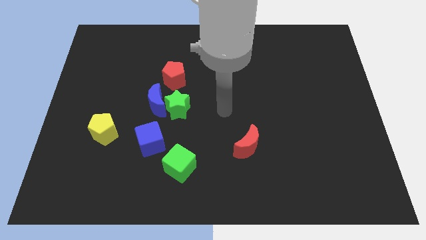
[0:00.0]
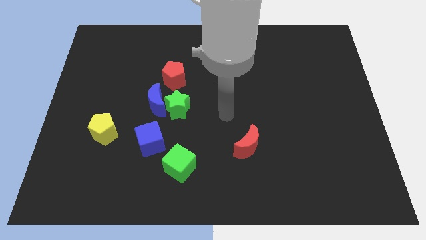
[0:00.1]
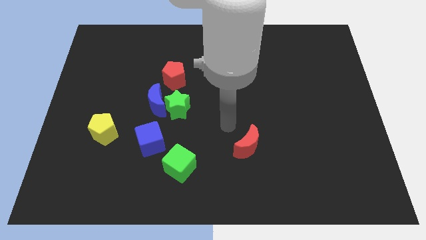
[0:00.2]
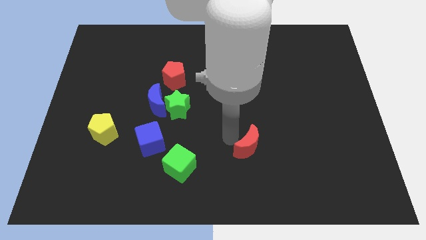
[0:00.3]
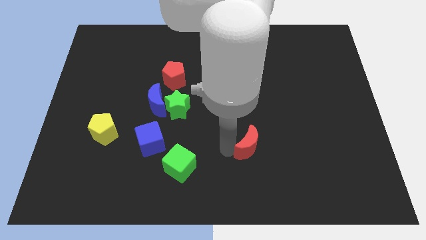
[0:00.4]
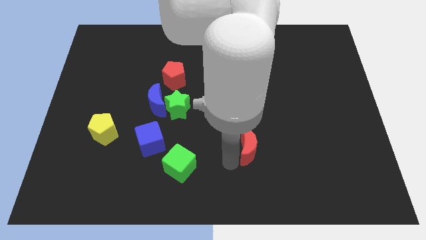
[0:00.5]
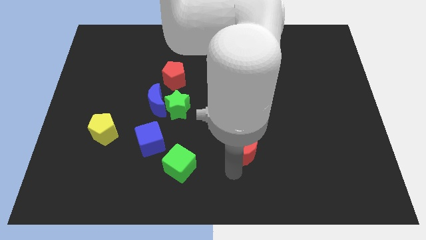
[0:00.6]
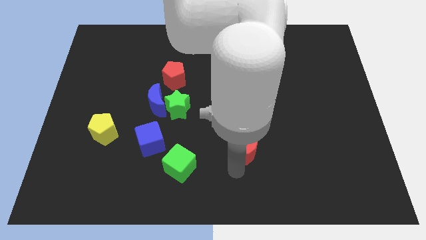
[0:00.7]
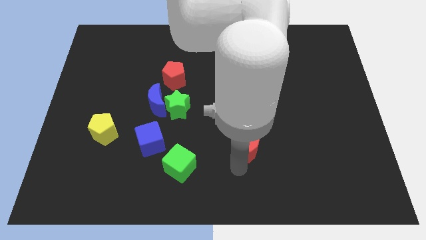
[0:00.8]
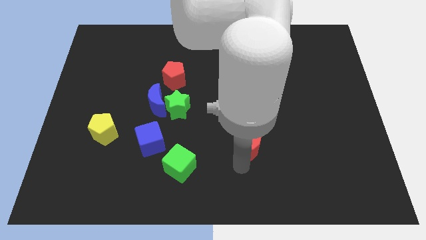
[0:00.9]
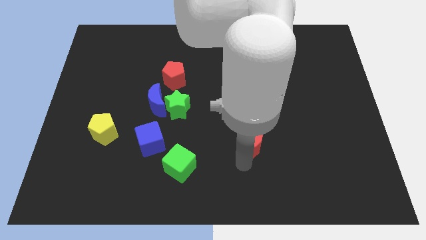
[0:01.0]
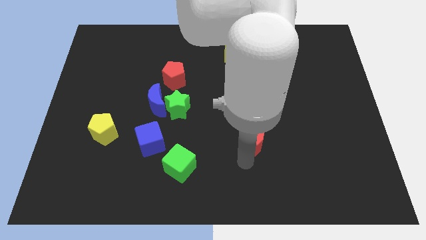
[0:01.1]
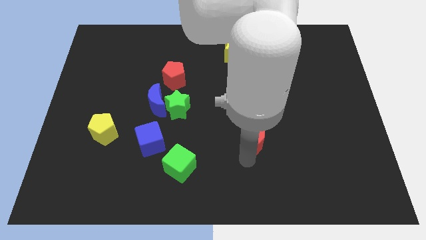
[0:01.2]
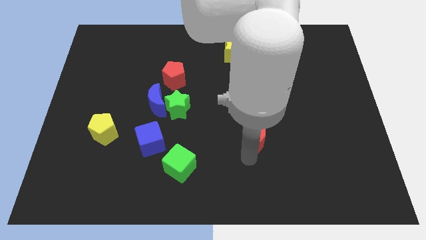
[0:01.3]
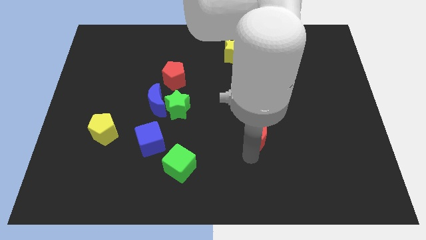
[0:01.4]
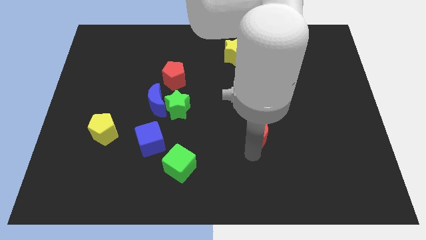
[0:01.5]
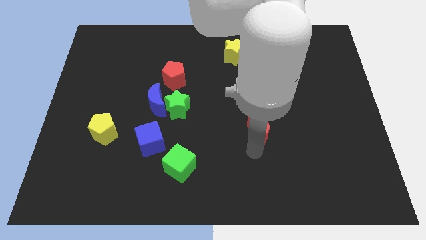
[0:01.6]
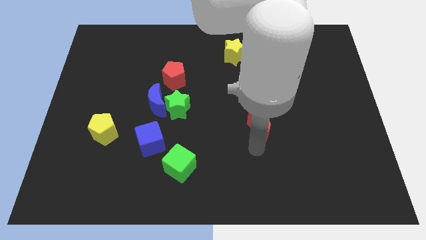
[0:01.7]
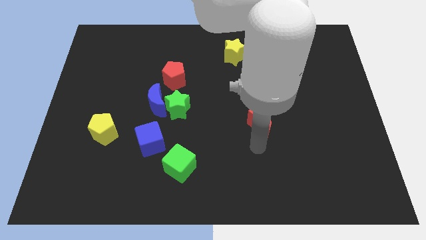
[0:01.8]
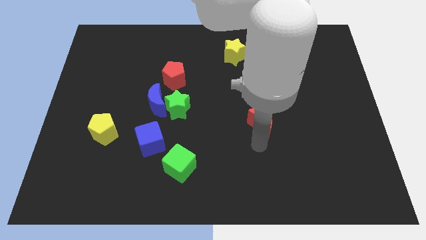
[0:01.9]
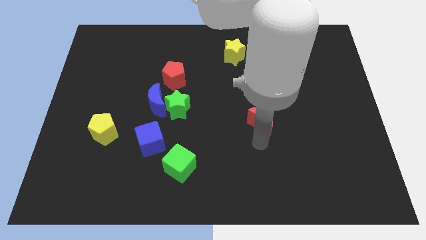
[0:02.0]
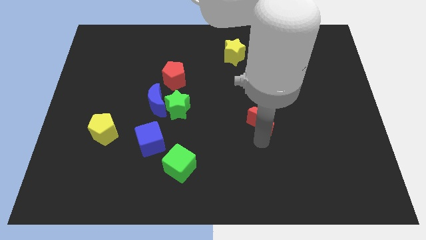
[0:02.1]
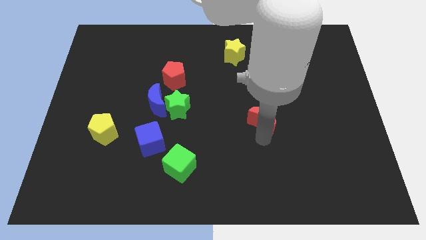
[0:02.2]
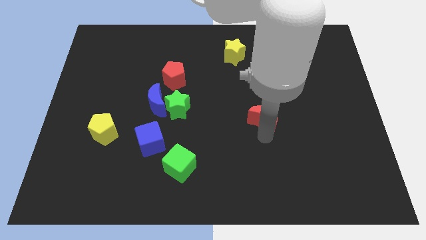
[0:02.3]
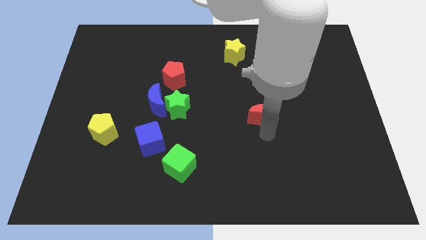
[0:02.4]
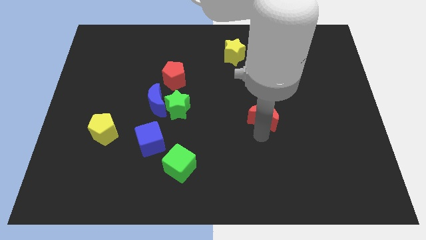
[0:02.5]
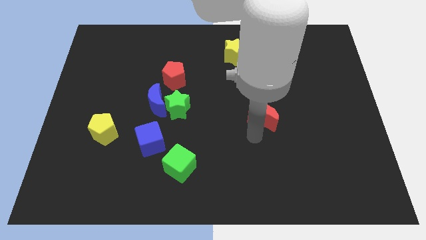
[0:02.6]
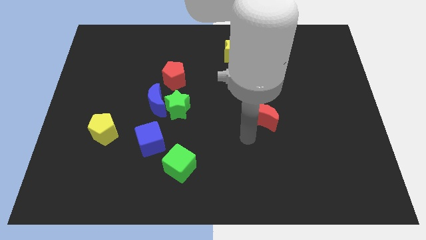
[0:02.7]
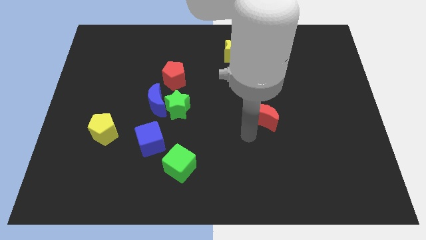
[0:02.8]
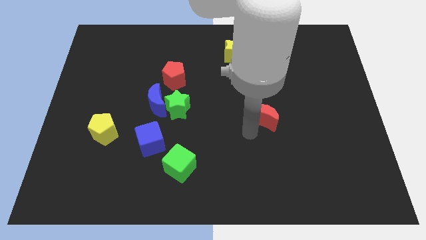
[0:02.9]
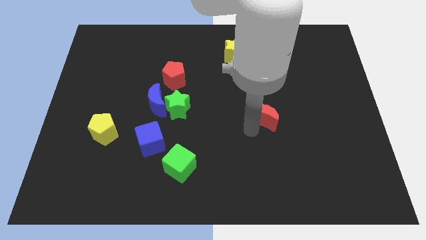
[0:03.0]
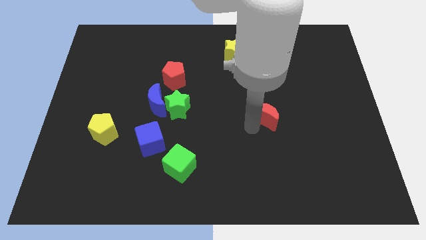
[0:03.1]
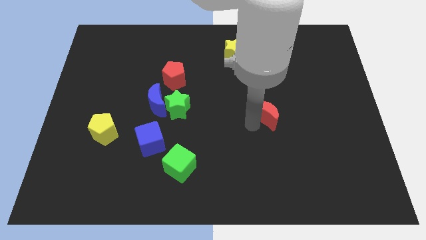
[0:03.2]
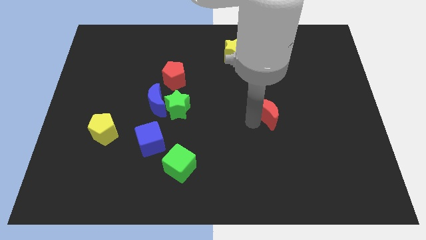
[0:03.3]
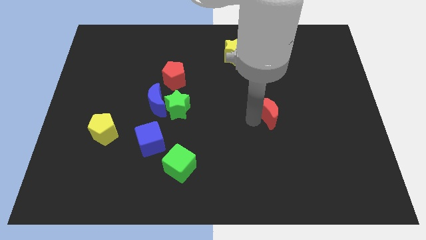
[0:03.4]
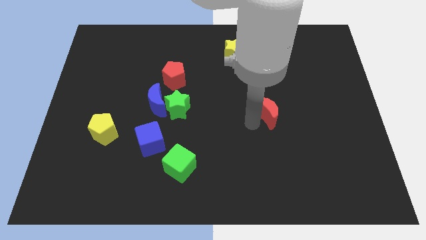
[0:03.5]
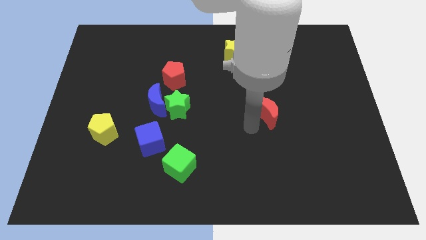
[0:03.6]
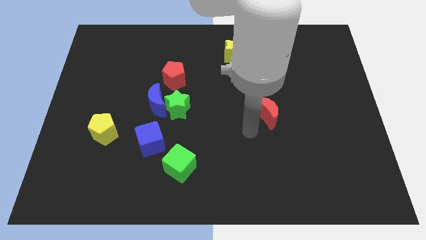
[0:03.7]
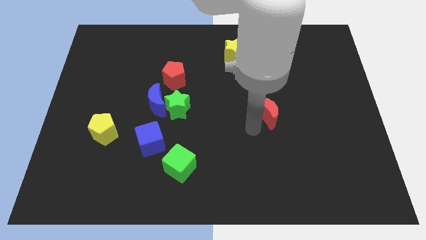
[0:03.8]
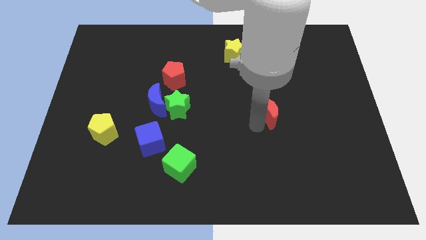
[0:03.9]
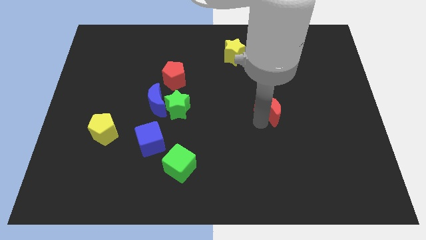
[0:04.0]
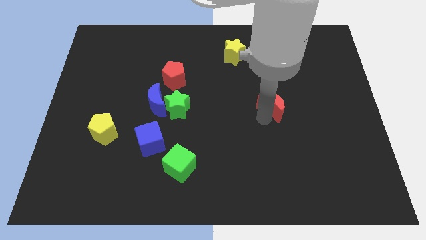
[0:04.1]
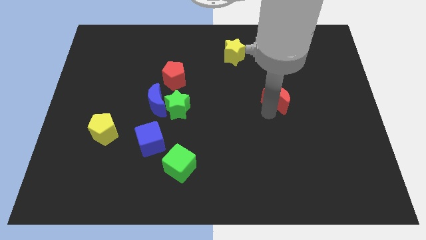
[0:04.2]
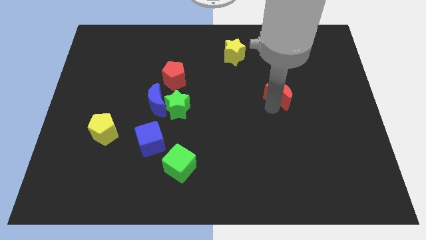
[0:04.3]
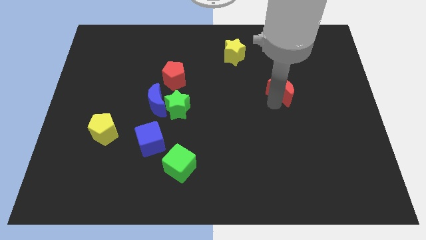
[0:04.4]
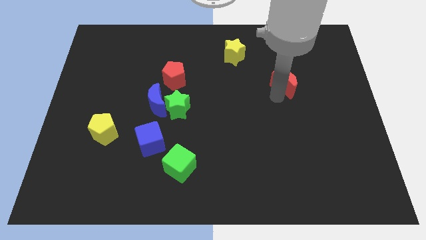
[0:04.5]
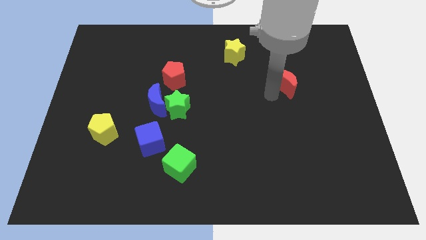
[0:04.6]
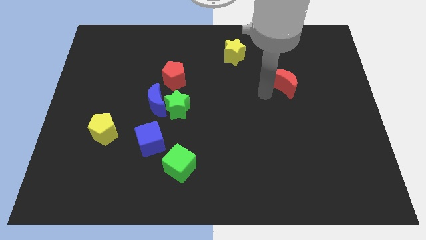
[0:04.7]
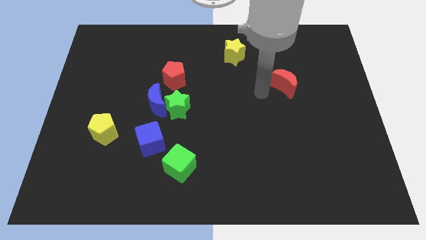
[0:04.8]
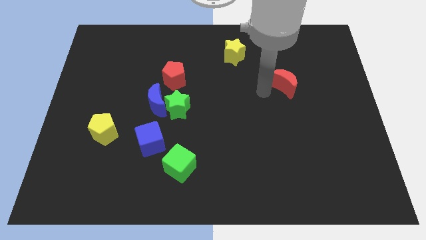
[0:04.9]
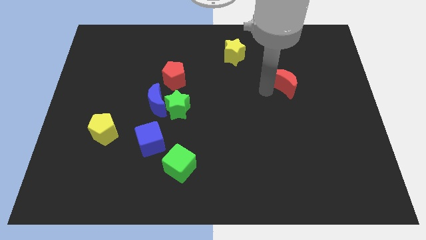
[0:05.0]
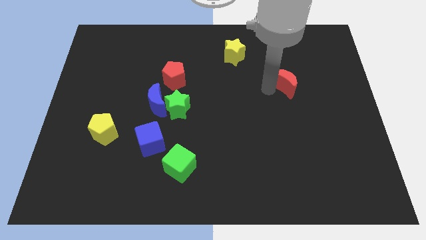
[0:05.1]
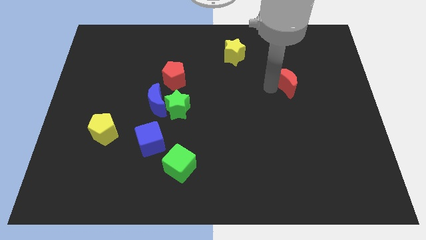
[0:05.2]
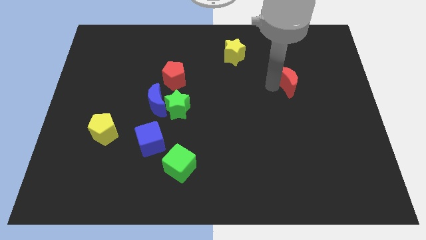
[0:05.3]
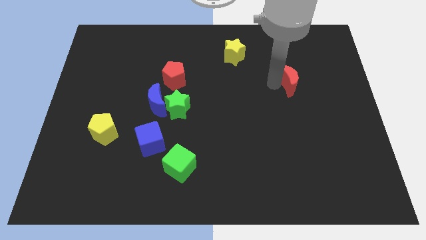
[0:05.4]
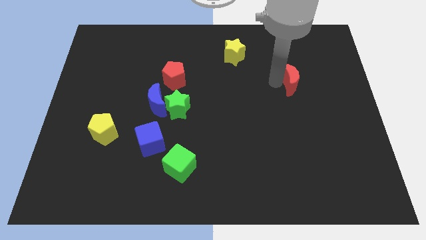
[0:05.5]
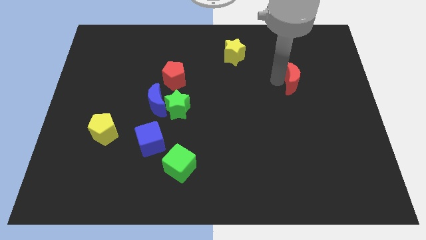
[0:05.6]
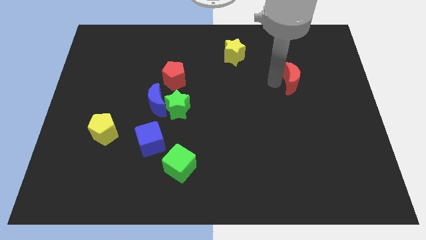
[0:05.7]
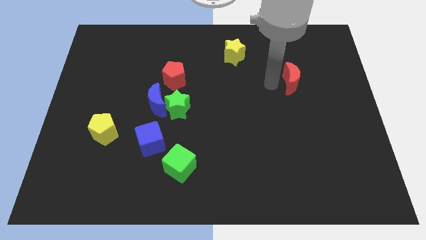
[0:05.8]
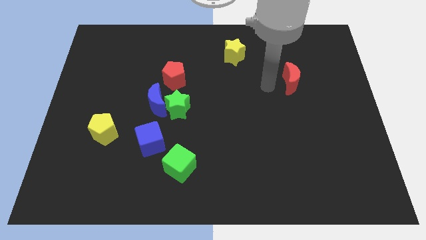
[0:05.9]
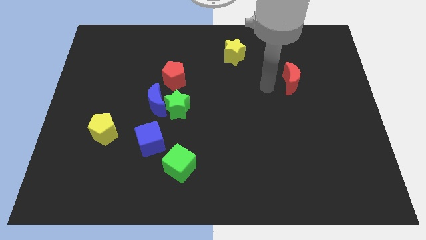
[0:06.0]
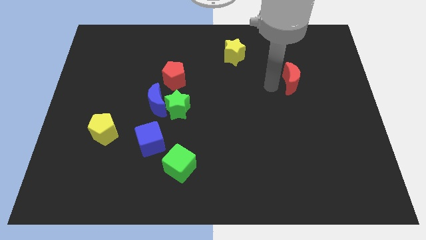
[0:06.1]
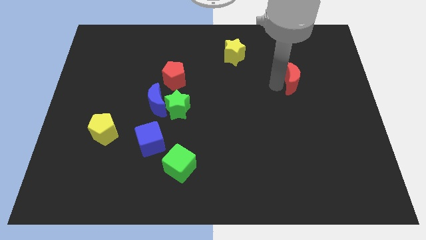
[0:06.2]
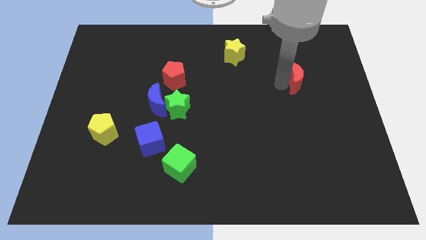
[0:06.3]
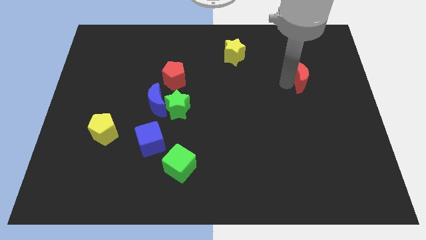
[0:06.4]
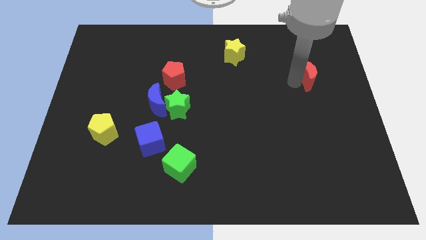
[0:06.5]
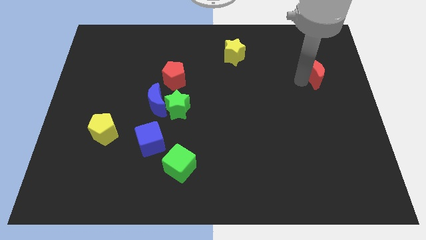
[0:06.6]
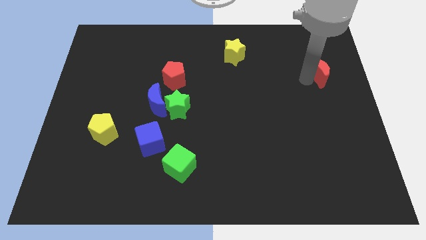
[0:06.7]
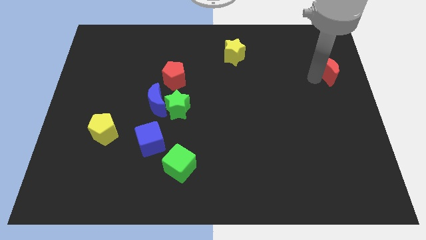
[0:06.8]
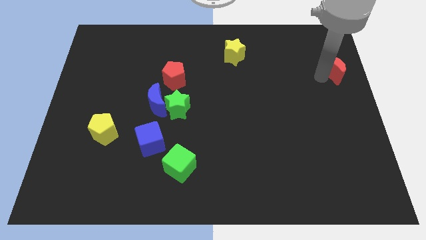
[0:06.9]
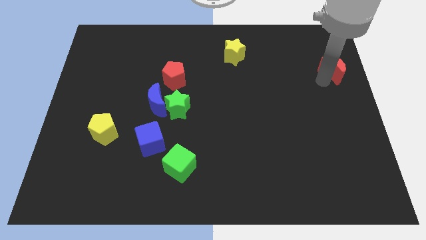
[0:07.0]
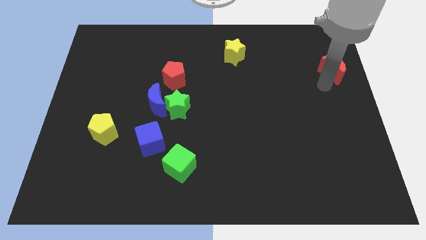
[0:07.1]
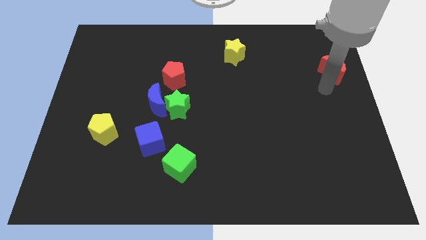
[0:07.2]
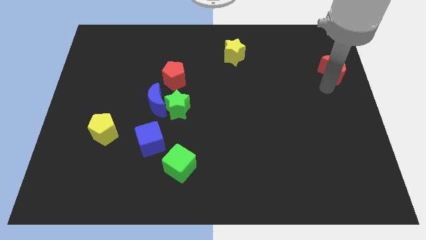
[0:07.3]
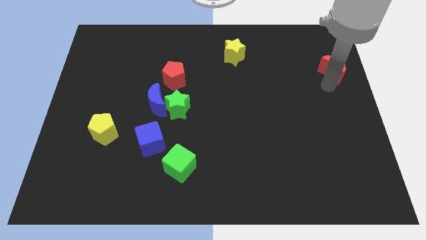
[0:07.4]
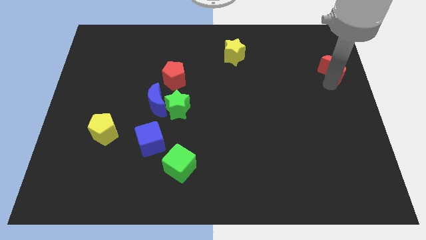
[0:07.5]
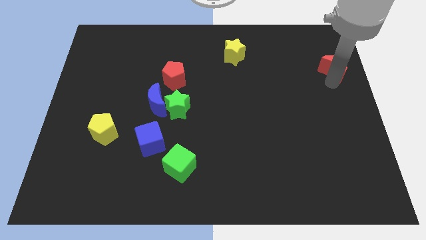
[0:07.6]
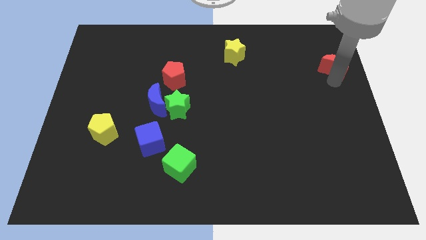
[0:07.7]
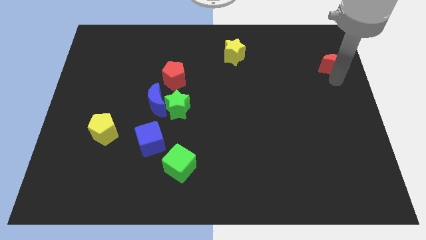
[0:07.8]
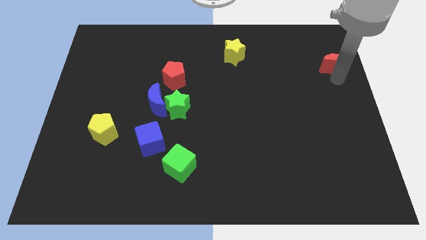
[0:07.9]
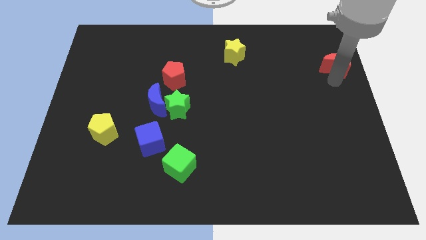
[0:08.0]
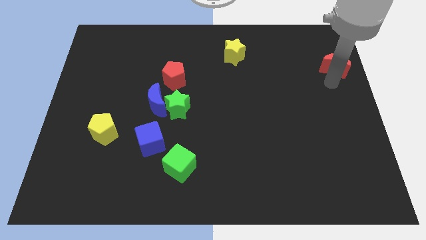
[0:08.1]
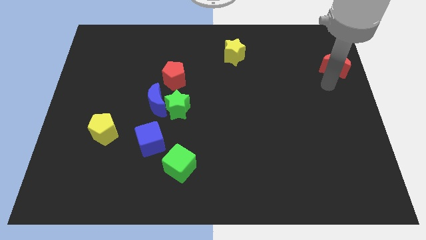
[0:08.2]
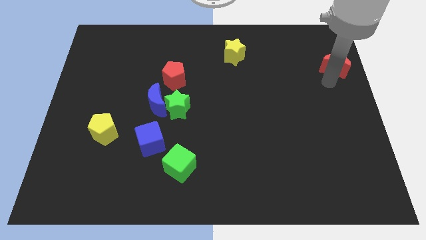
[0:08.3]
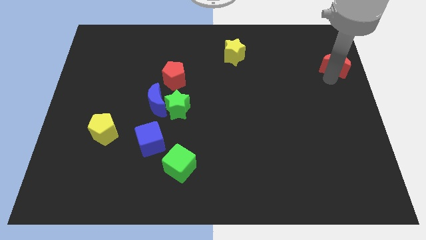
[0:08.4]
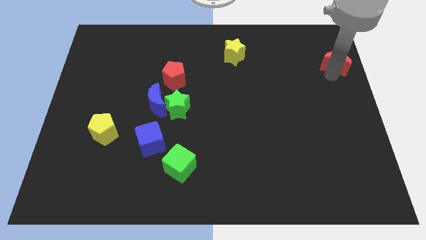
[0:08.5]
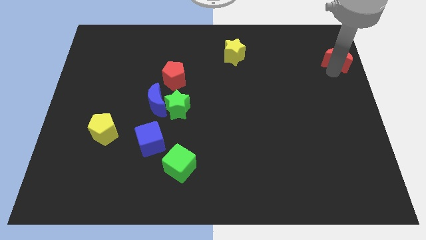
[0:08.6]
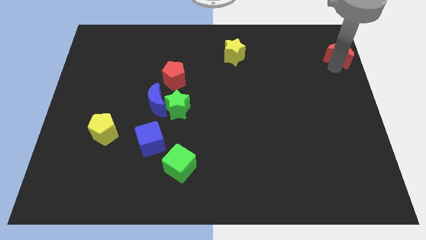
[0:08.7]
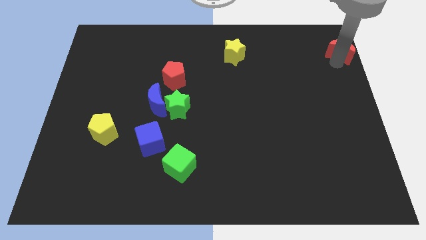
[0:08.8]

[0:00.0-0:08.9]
put the red moon to the top right
